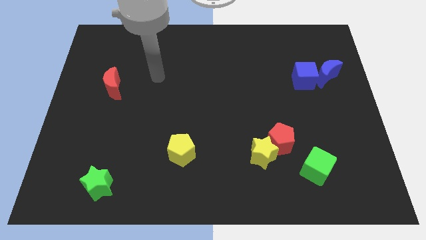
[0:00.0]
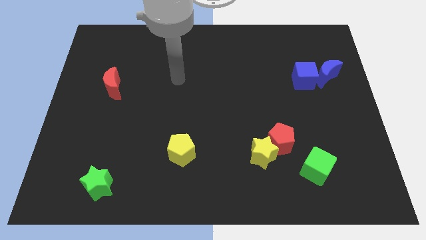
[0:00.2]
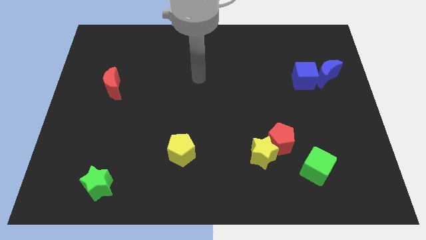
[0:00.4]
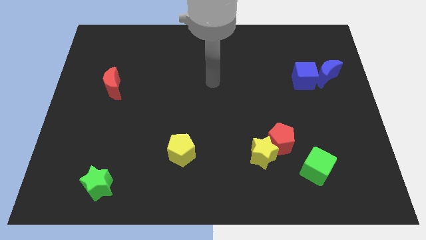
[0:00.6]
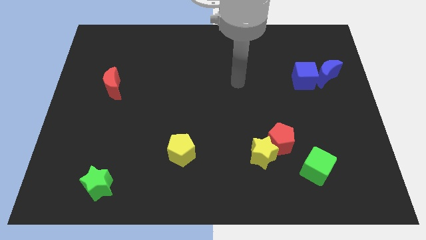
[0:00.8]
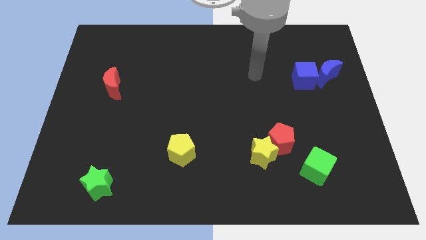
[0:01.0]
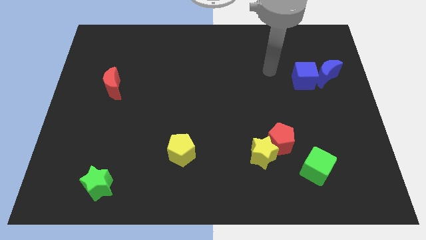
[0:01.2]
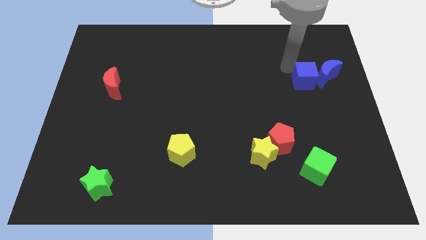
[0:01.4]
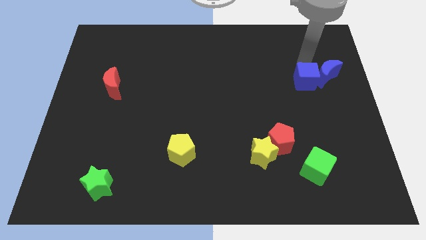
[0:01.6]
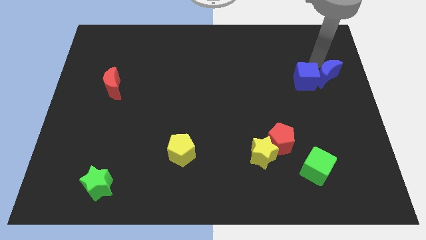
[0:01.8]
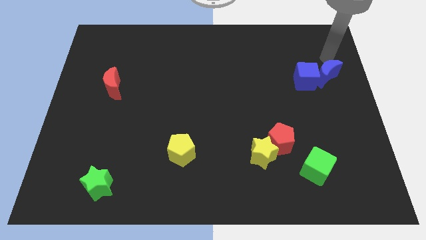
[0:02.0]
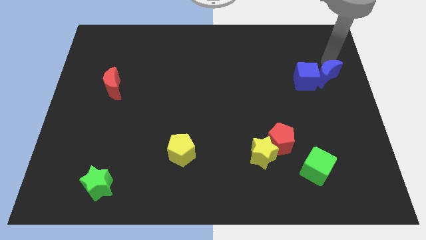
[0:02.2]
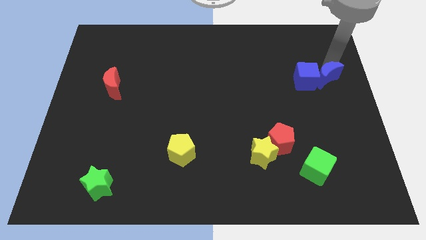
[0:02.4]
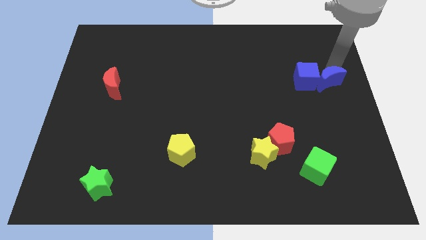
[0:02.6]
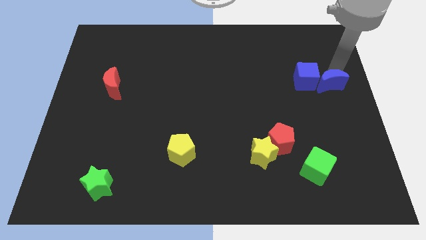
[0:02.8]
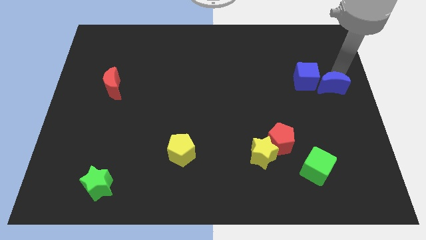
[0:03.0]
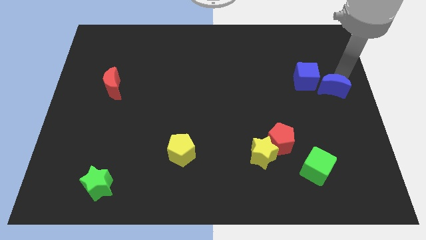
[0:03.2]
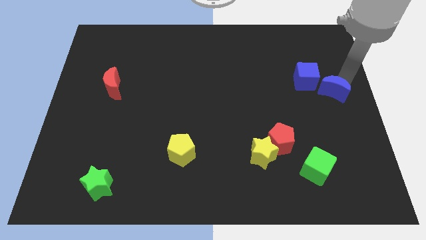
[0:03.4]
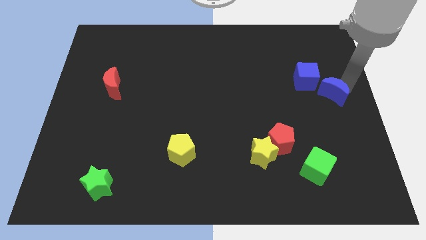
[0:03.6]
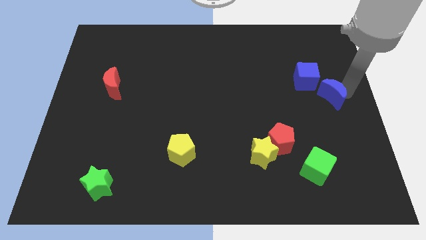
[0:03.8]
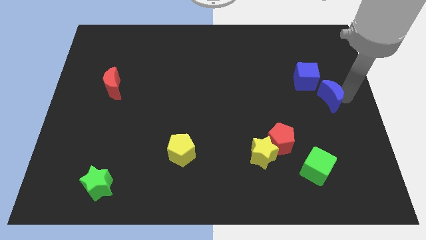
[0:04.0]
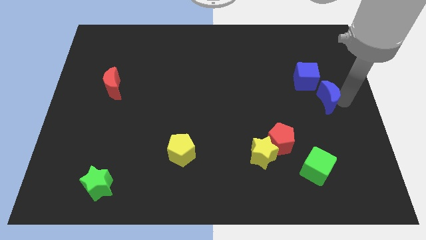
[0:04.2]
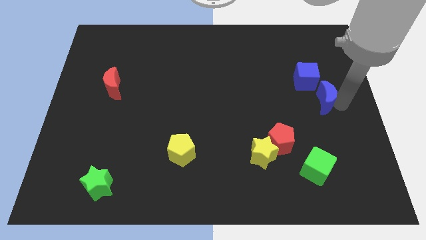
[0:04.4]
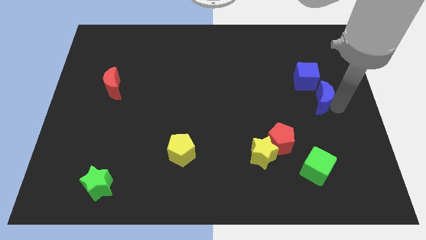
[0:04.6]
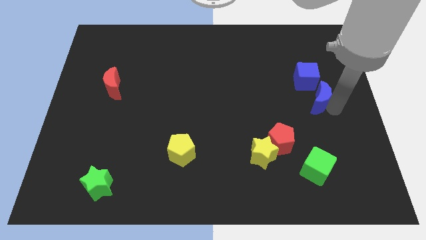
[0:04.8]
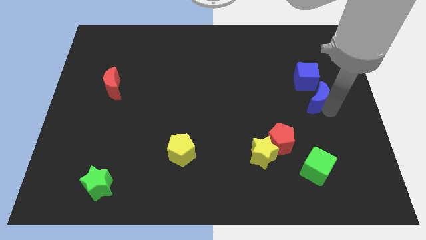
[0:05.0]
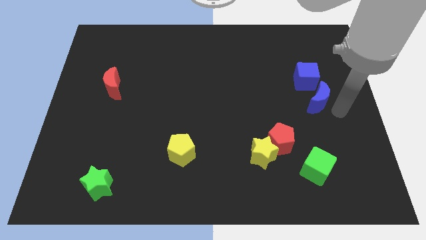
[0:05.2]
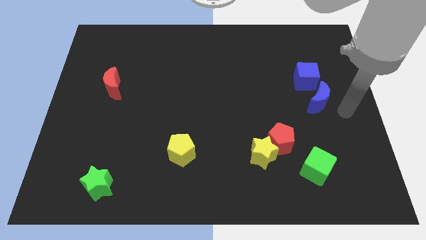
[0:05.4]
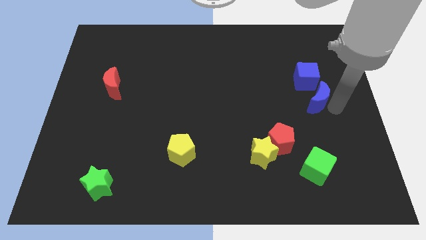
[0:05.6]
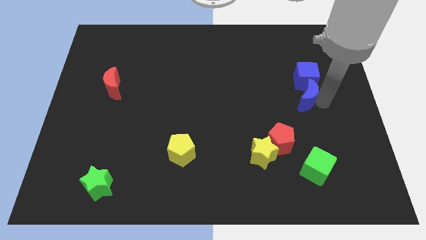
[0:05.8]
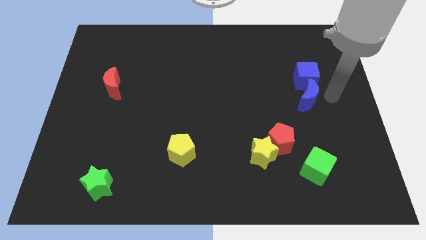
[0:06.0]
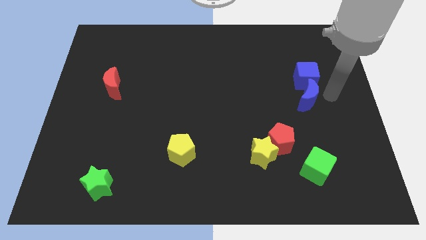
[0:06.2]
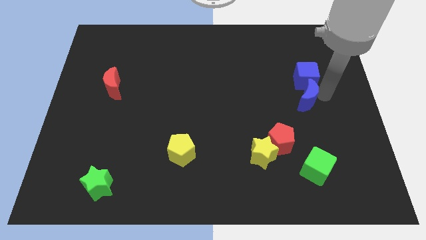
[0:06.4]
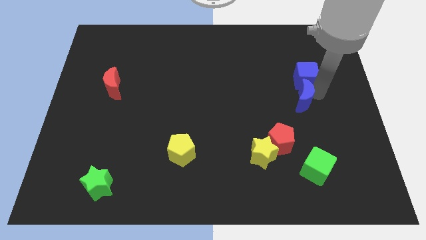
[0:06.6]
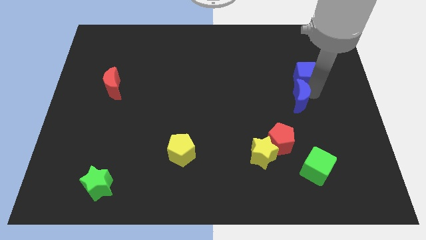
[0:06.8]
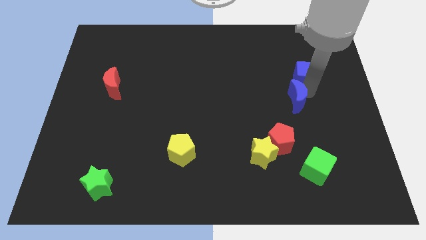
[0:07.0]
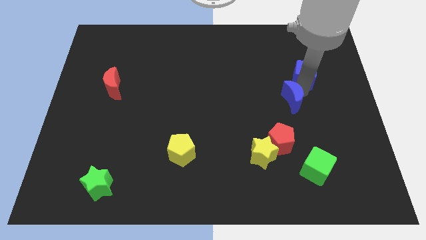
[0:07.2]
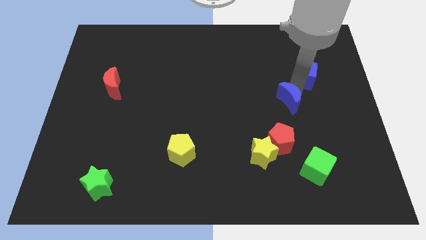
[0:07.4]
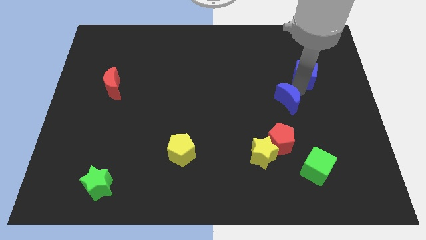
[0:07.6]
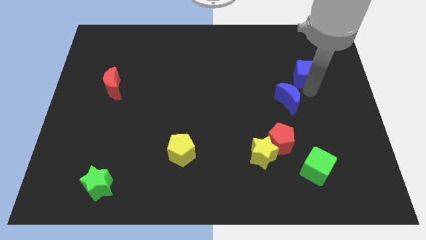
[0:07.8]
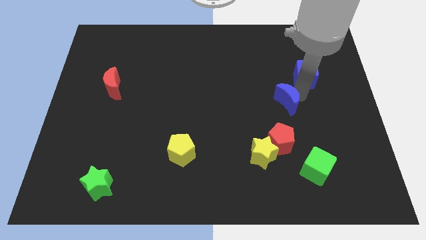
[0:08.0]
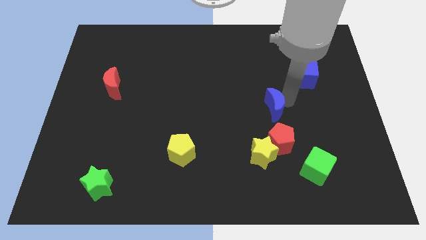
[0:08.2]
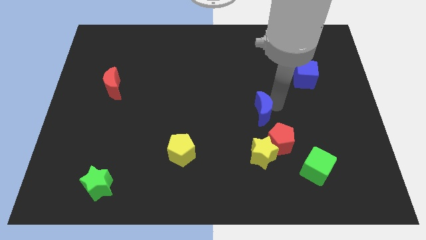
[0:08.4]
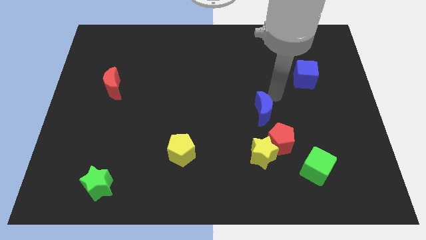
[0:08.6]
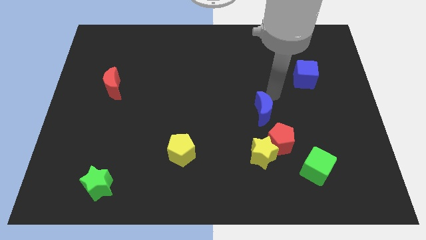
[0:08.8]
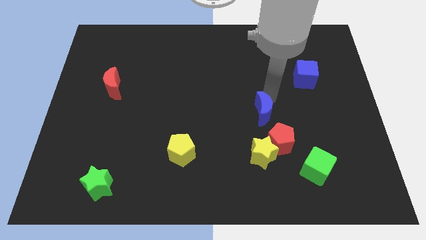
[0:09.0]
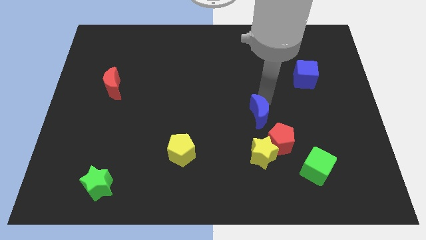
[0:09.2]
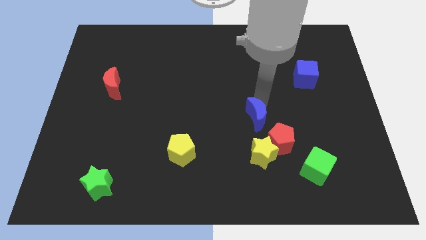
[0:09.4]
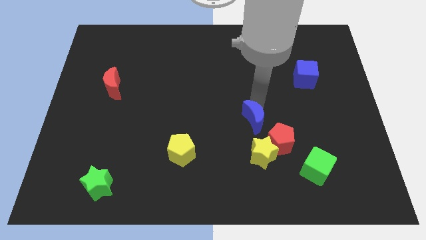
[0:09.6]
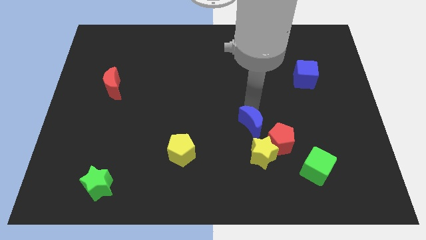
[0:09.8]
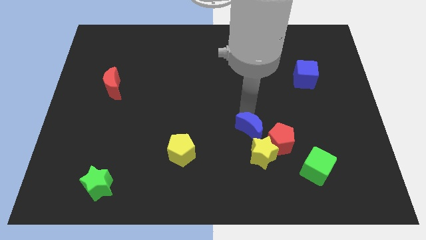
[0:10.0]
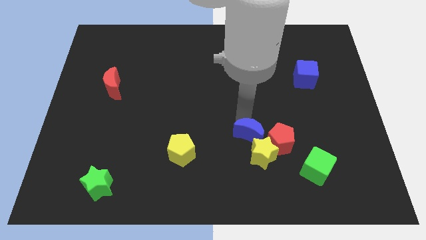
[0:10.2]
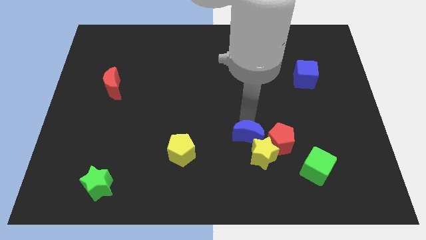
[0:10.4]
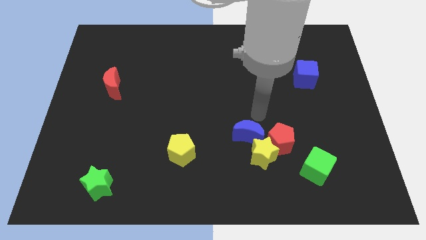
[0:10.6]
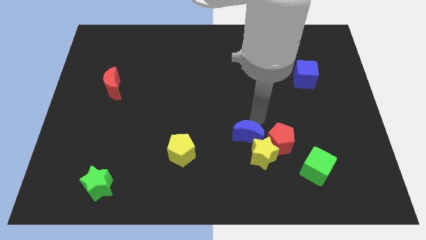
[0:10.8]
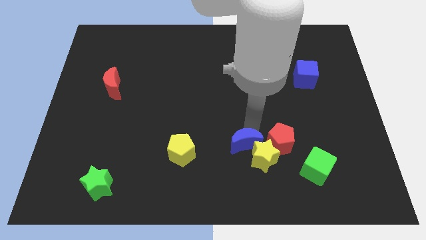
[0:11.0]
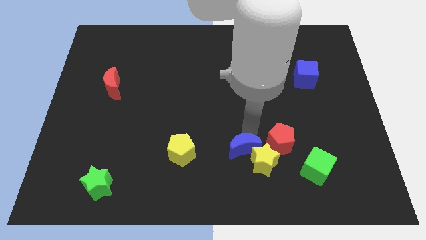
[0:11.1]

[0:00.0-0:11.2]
push the blue moon diagonally down and to the left of the red pentagon

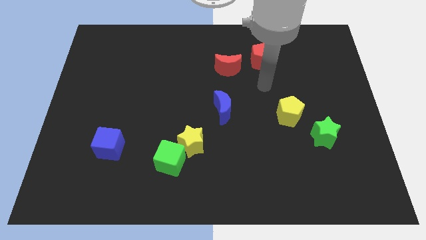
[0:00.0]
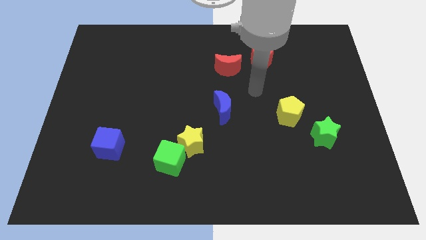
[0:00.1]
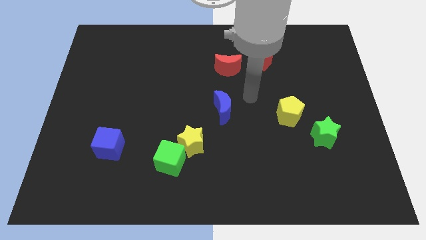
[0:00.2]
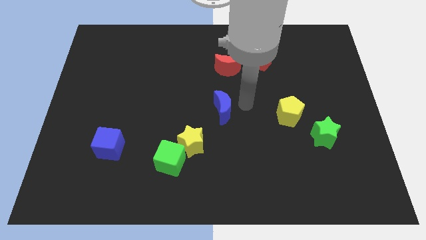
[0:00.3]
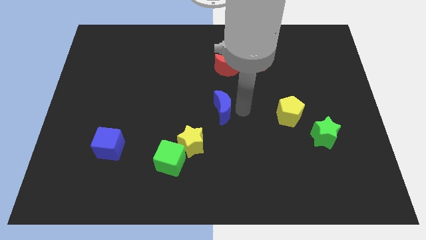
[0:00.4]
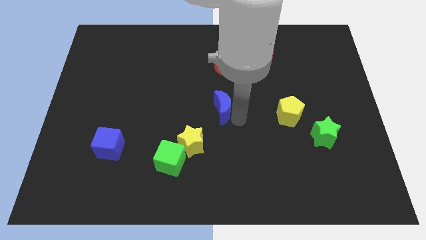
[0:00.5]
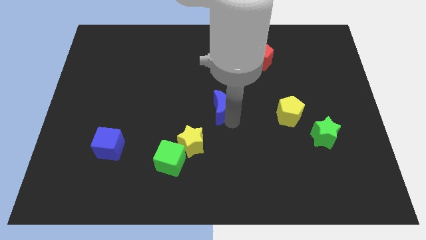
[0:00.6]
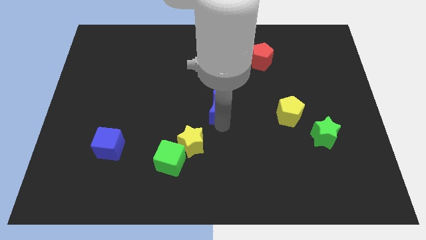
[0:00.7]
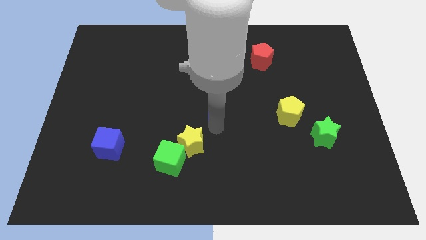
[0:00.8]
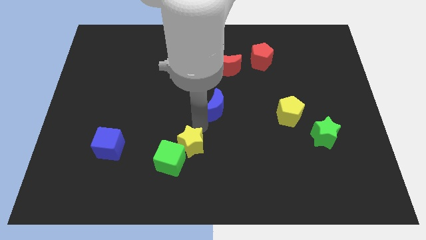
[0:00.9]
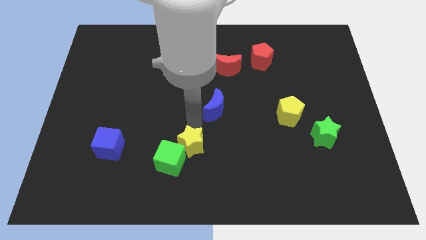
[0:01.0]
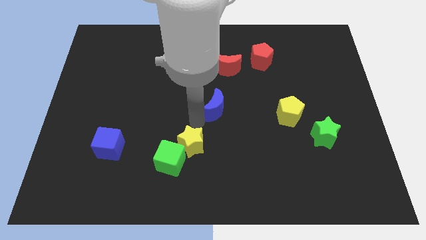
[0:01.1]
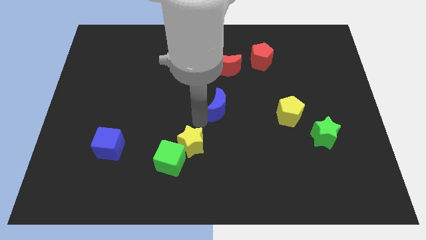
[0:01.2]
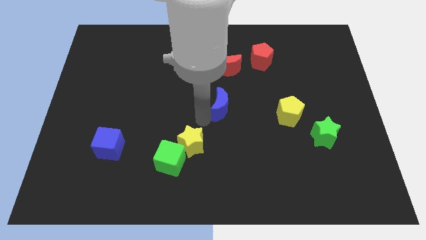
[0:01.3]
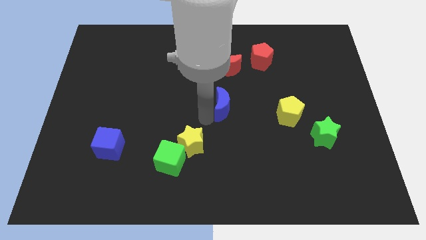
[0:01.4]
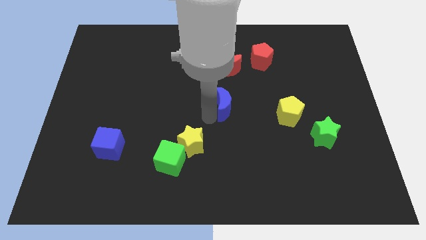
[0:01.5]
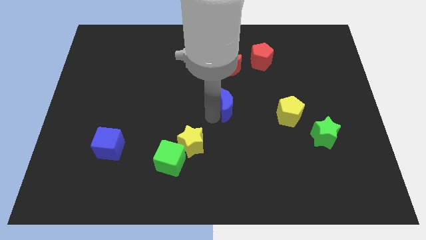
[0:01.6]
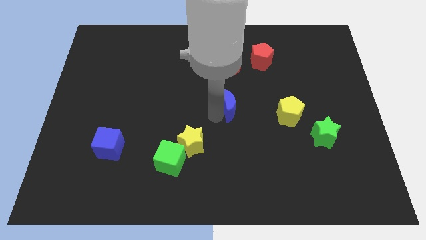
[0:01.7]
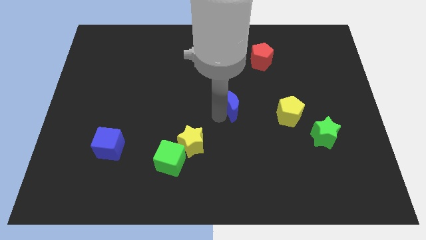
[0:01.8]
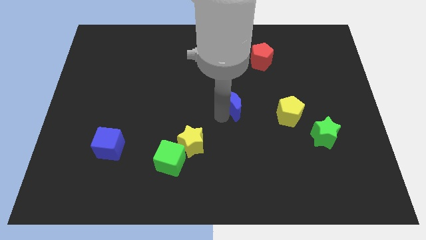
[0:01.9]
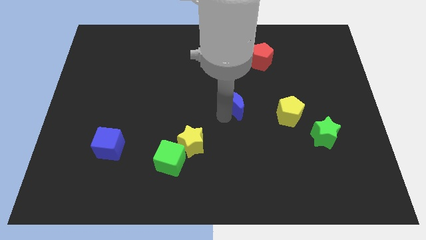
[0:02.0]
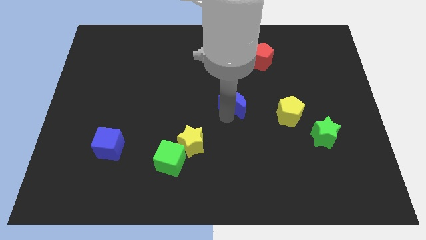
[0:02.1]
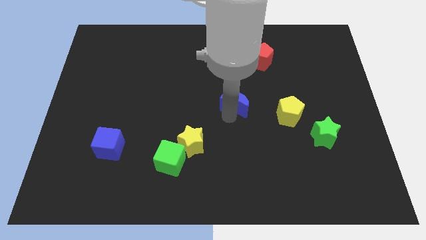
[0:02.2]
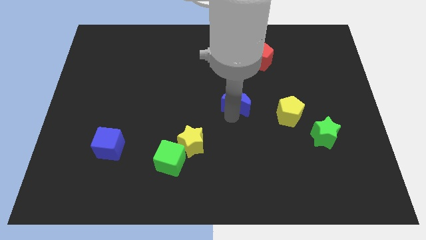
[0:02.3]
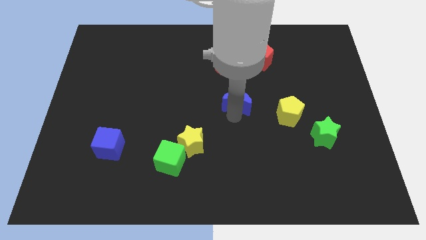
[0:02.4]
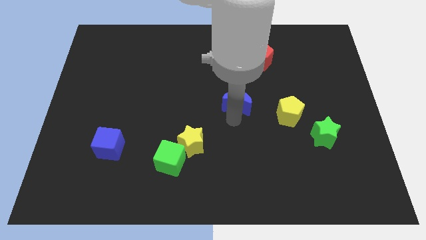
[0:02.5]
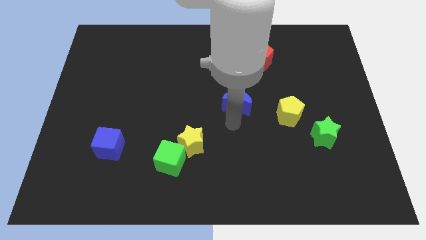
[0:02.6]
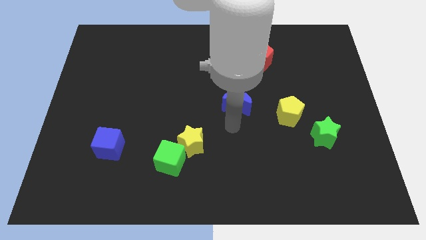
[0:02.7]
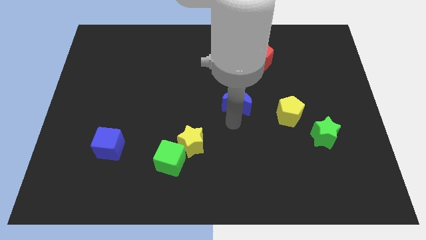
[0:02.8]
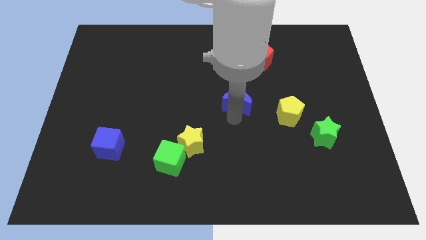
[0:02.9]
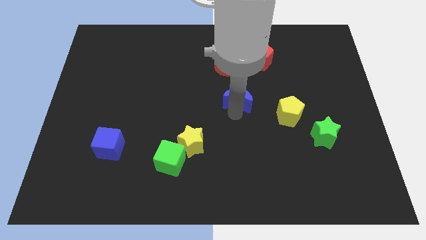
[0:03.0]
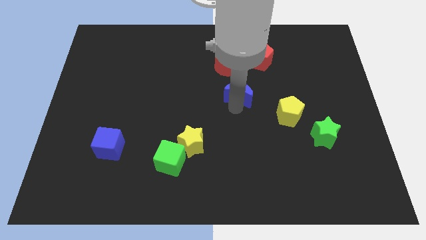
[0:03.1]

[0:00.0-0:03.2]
put the blue moon to the bottom right side of the red moon
